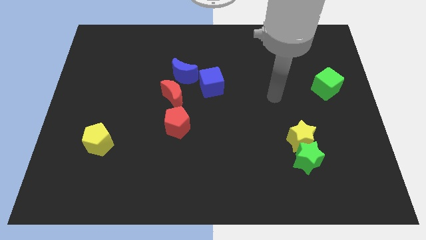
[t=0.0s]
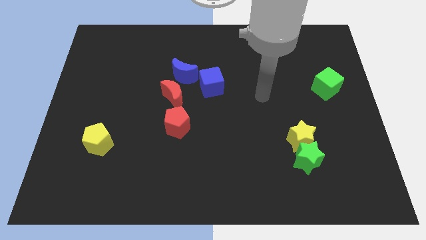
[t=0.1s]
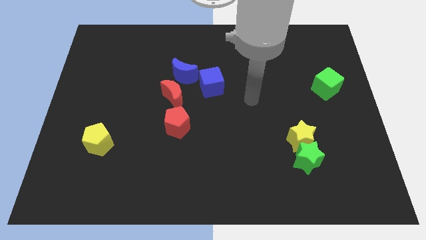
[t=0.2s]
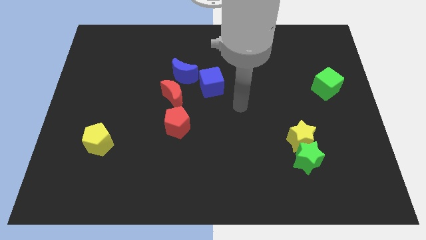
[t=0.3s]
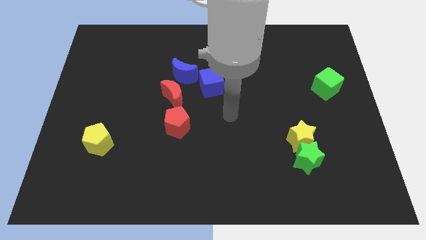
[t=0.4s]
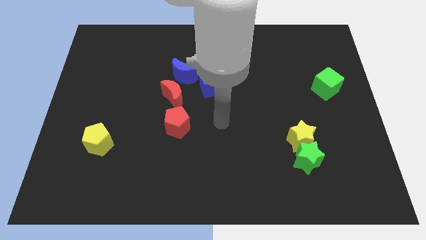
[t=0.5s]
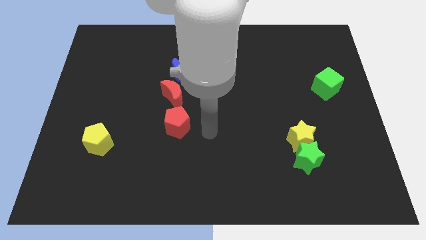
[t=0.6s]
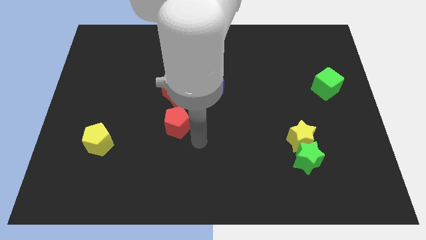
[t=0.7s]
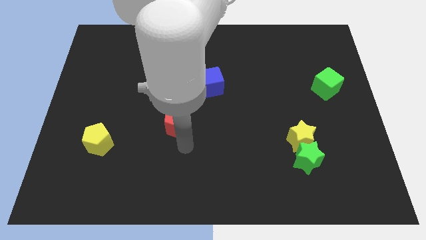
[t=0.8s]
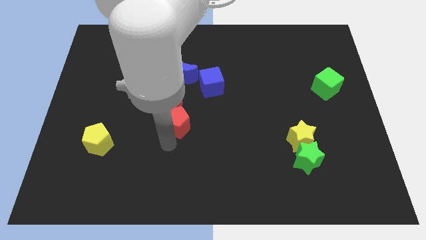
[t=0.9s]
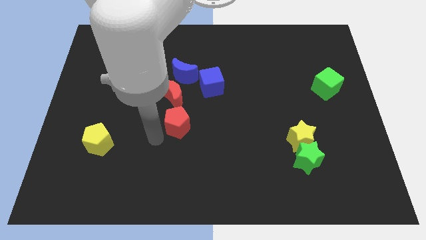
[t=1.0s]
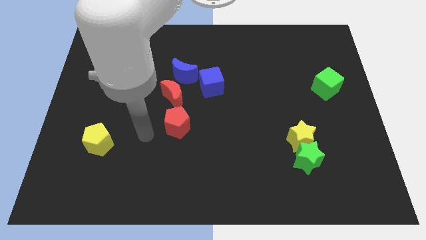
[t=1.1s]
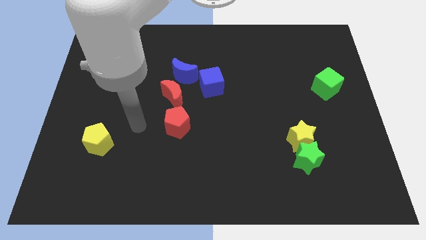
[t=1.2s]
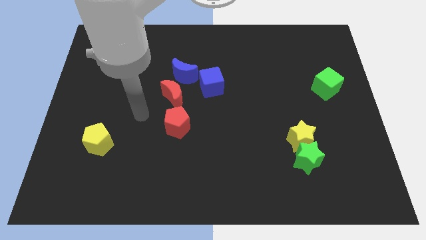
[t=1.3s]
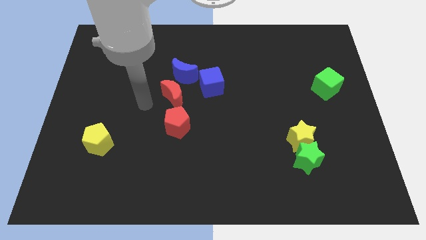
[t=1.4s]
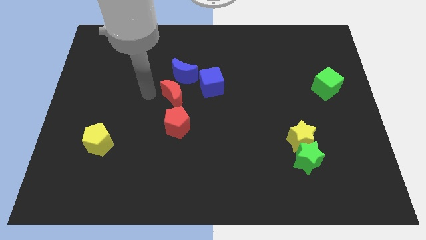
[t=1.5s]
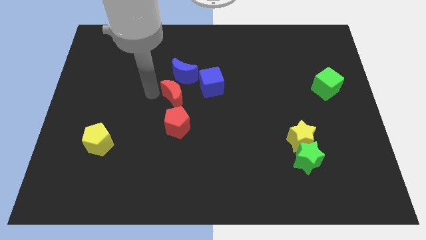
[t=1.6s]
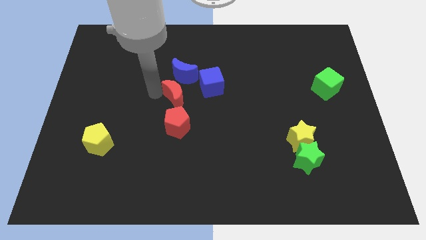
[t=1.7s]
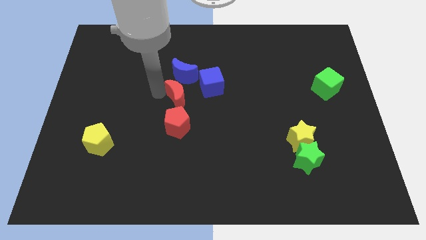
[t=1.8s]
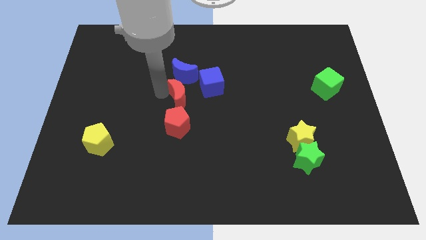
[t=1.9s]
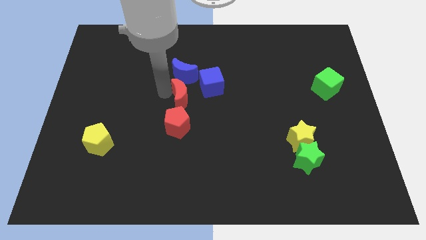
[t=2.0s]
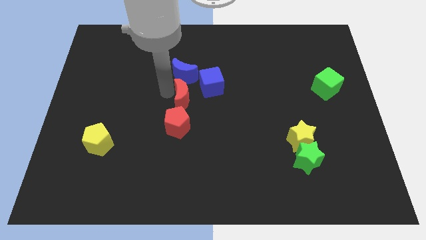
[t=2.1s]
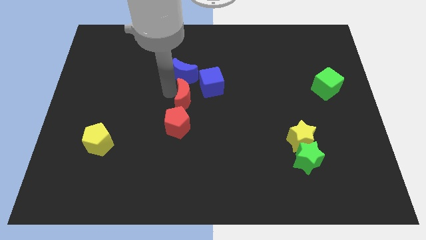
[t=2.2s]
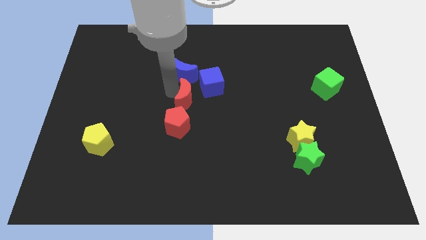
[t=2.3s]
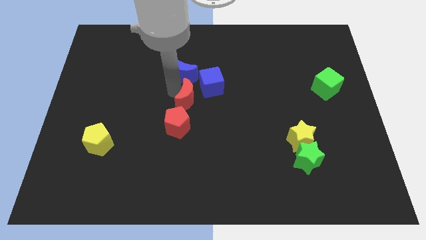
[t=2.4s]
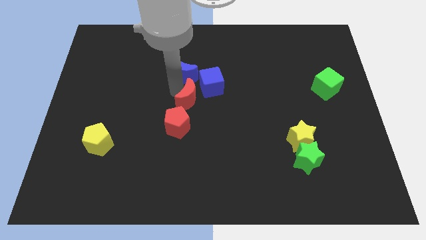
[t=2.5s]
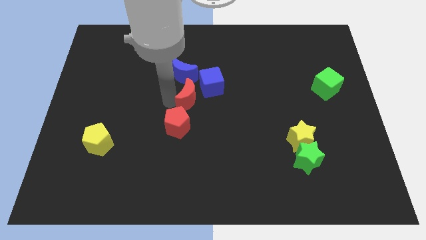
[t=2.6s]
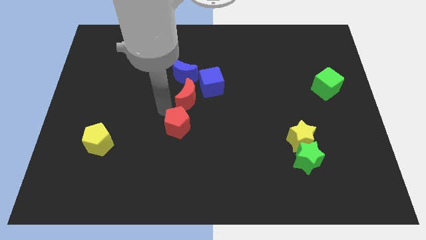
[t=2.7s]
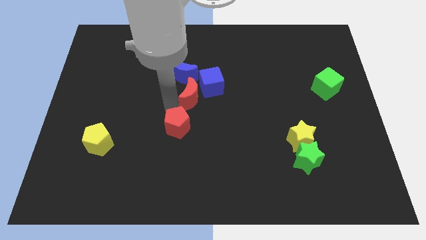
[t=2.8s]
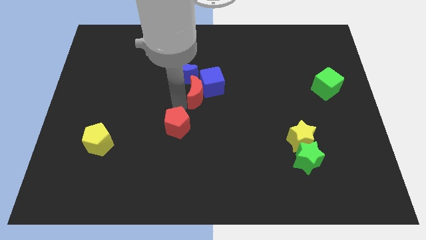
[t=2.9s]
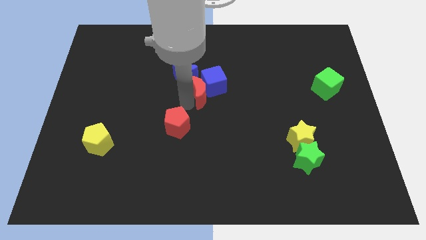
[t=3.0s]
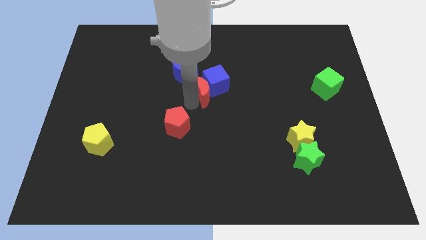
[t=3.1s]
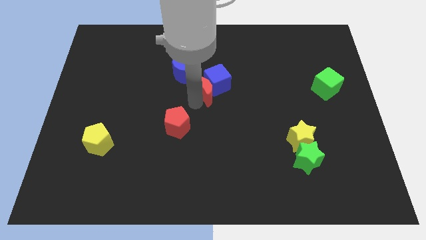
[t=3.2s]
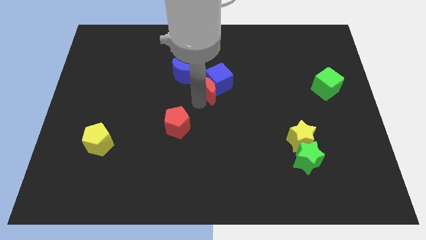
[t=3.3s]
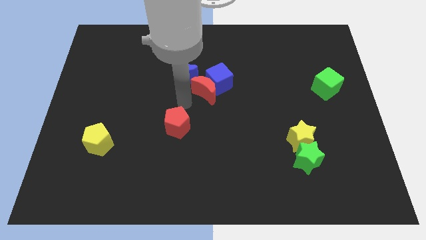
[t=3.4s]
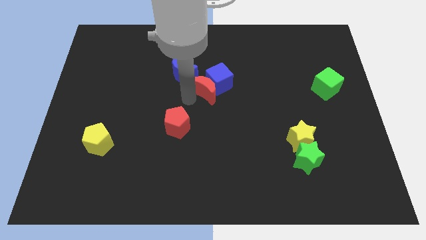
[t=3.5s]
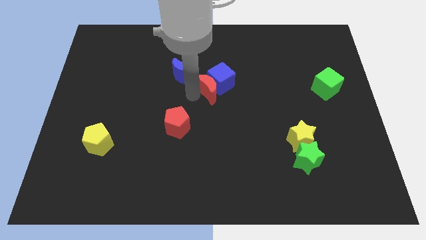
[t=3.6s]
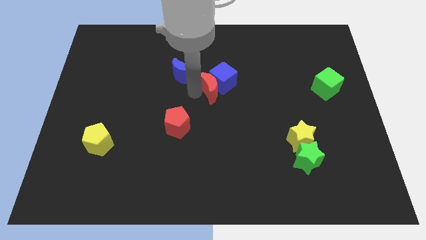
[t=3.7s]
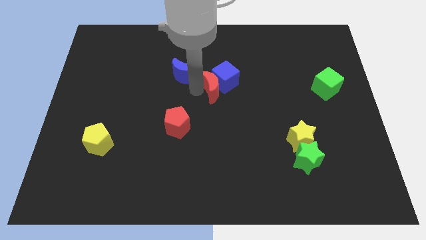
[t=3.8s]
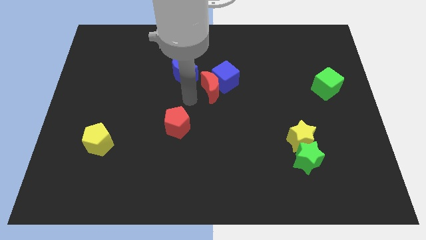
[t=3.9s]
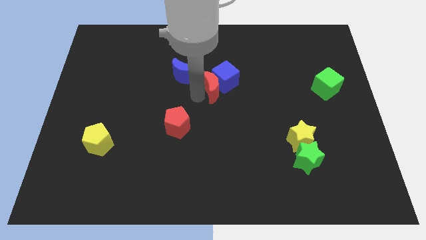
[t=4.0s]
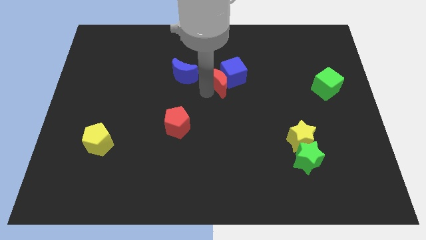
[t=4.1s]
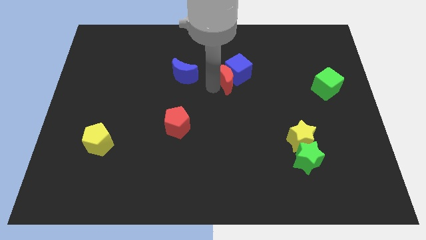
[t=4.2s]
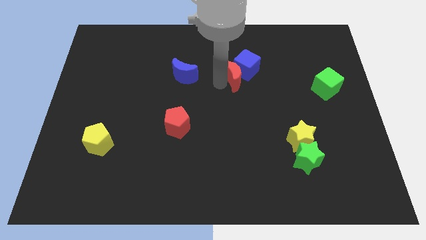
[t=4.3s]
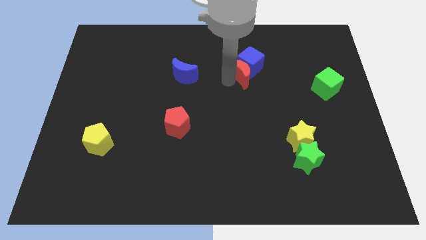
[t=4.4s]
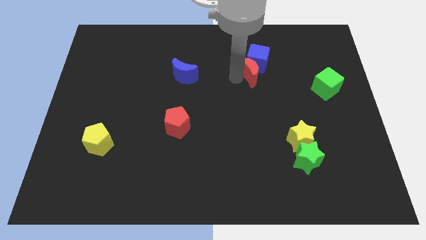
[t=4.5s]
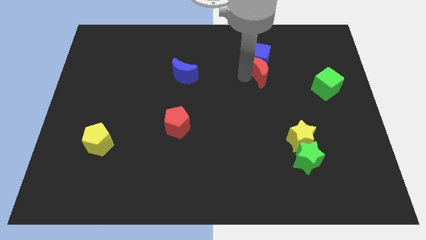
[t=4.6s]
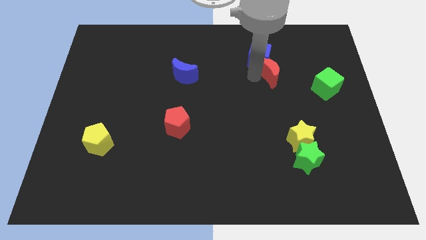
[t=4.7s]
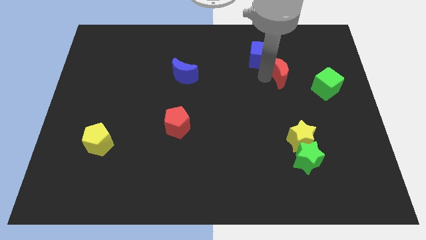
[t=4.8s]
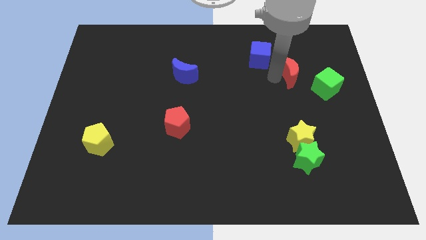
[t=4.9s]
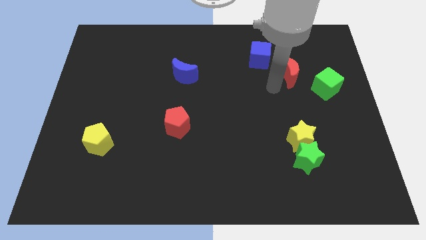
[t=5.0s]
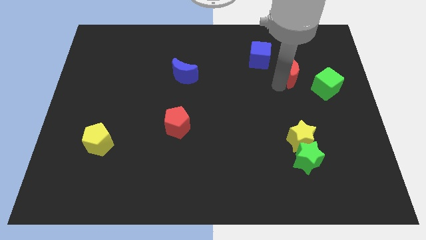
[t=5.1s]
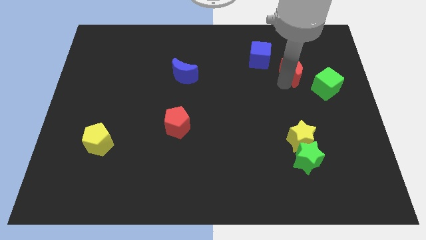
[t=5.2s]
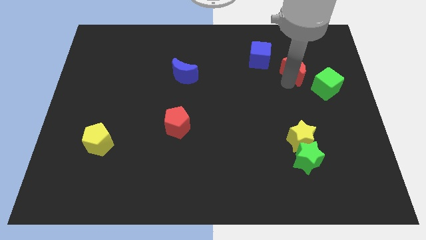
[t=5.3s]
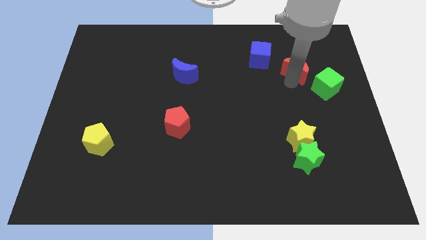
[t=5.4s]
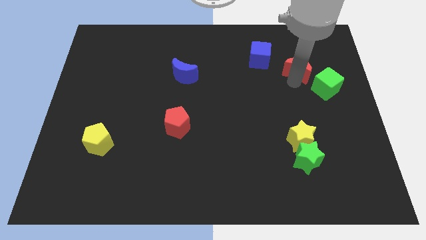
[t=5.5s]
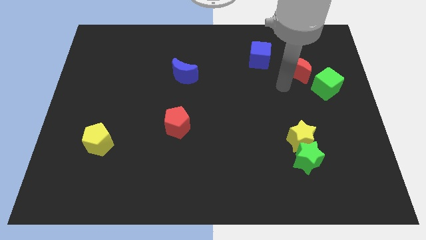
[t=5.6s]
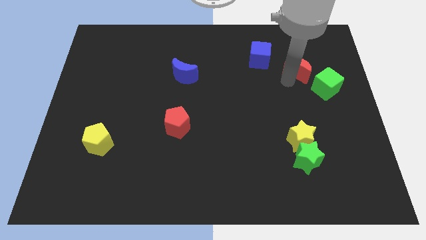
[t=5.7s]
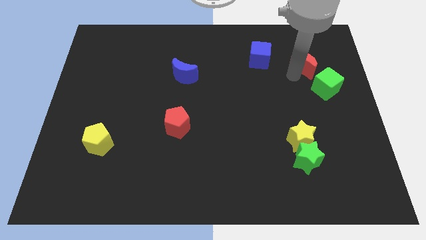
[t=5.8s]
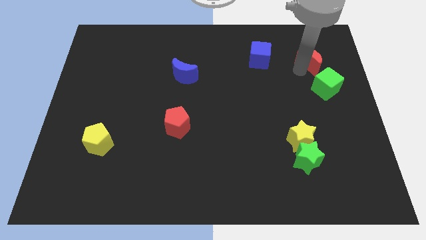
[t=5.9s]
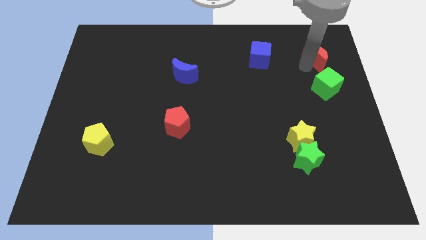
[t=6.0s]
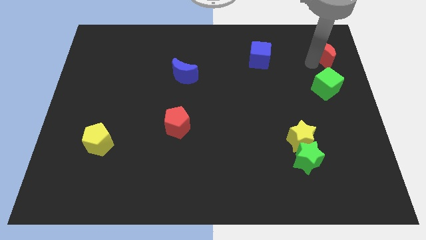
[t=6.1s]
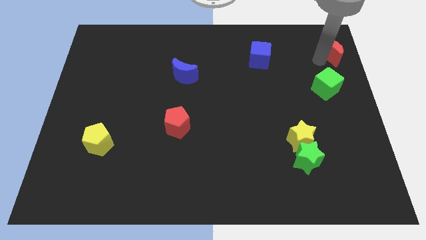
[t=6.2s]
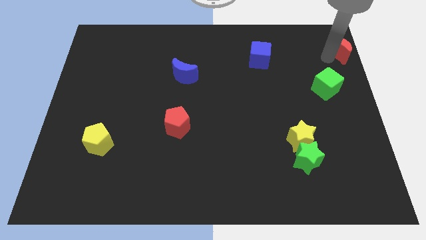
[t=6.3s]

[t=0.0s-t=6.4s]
move the red moon to the top right
